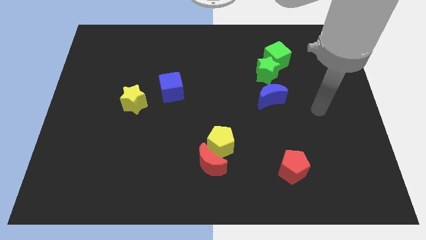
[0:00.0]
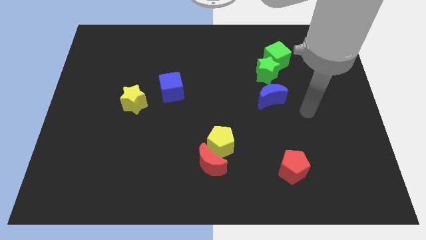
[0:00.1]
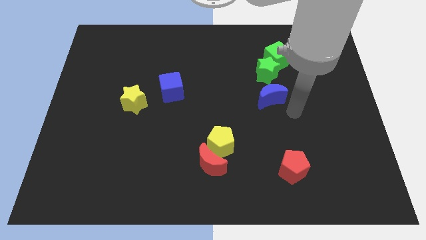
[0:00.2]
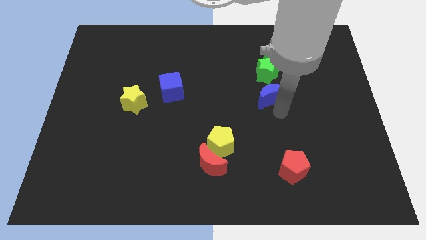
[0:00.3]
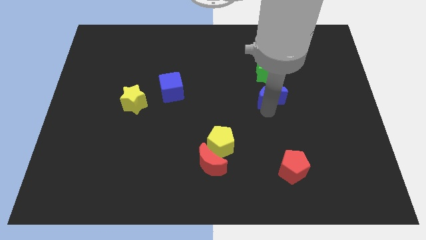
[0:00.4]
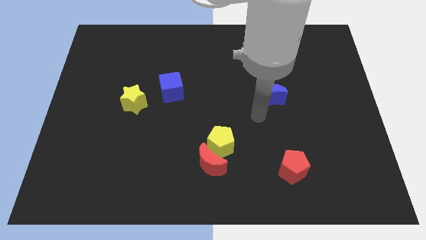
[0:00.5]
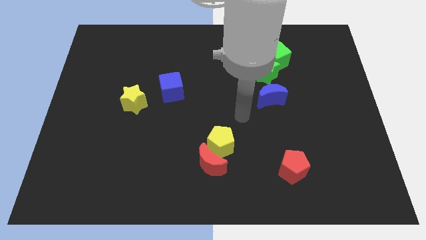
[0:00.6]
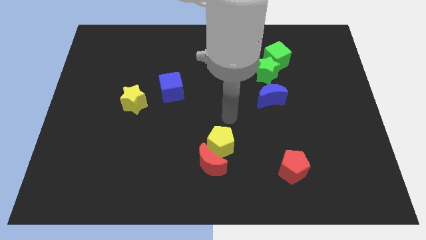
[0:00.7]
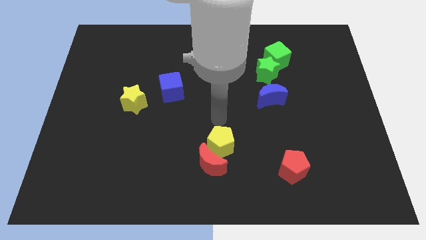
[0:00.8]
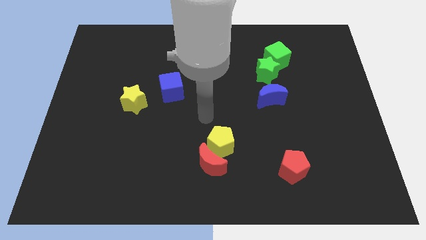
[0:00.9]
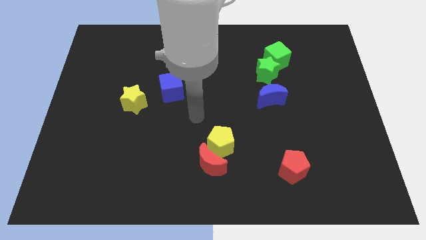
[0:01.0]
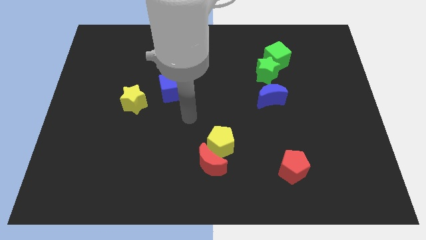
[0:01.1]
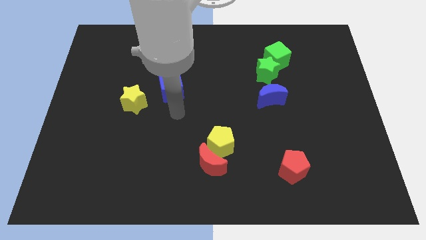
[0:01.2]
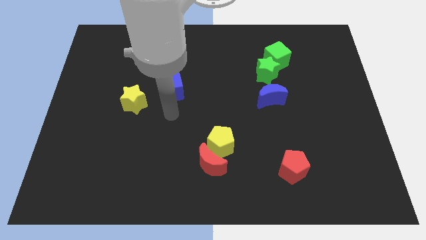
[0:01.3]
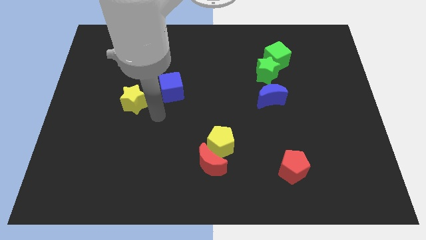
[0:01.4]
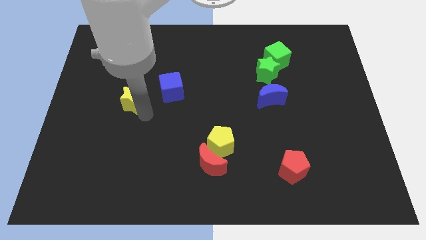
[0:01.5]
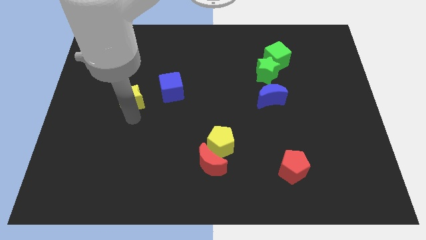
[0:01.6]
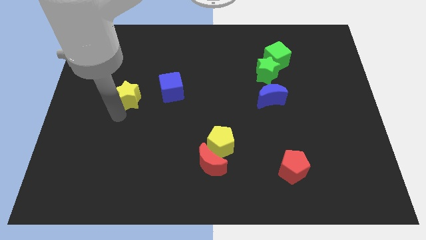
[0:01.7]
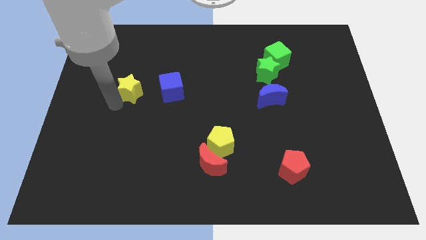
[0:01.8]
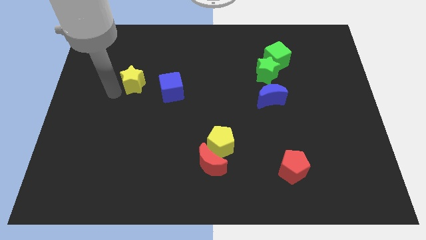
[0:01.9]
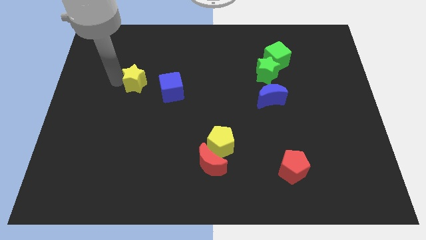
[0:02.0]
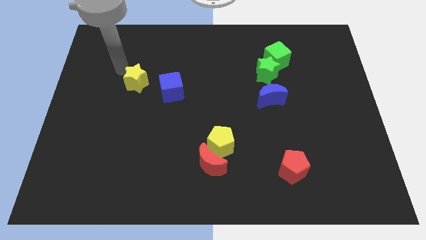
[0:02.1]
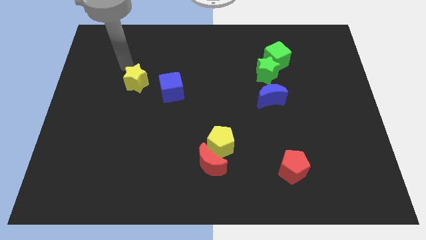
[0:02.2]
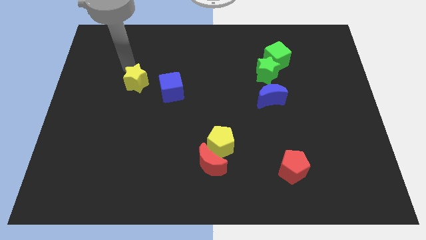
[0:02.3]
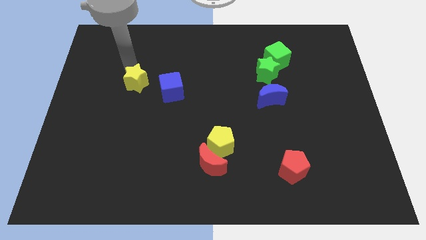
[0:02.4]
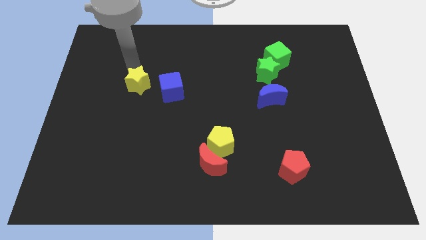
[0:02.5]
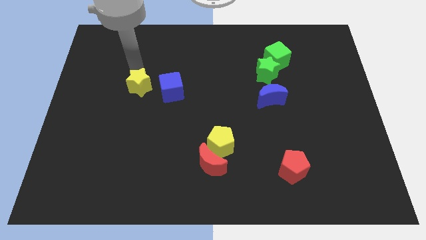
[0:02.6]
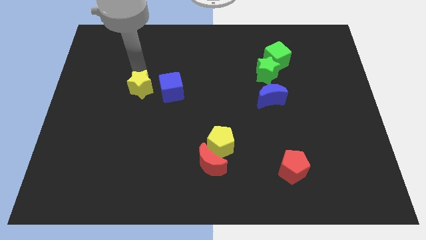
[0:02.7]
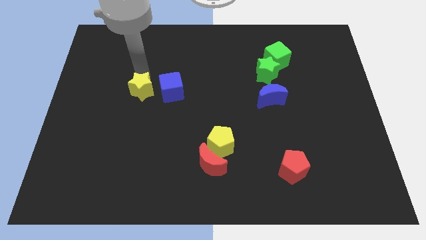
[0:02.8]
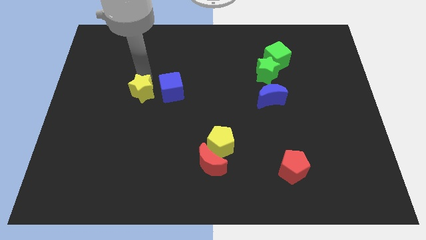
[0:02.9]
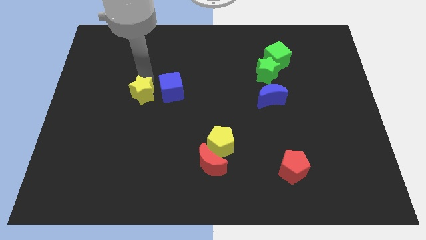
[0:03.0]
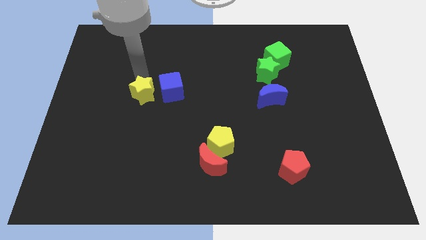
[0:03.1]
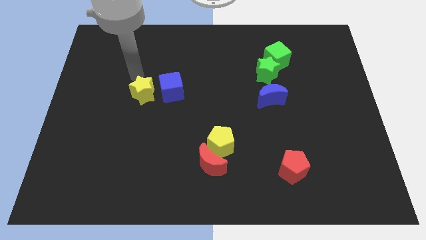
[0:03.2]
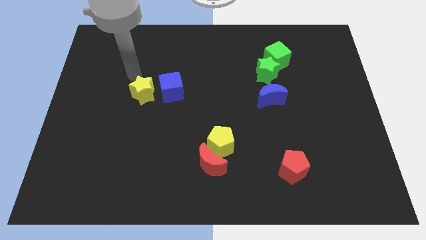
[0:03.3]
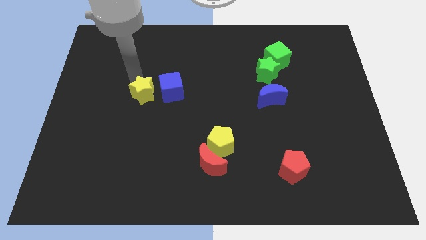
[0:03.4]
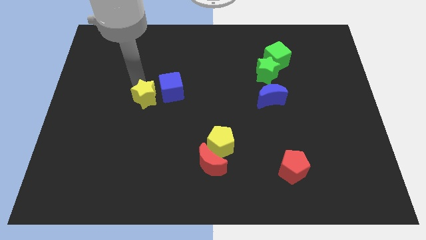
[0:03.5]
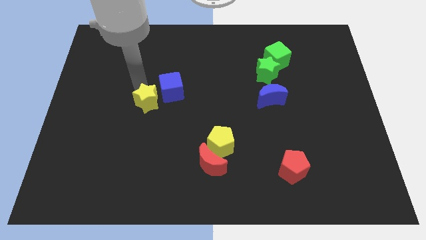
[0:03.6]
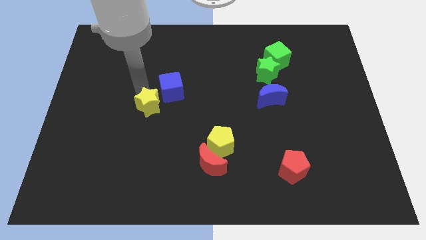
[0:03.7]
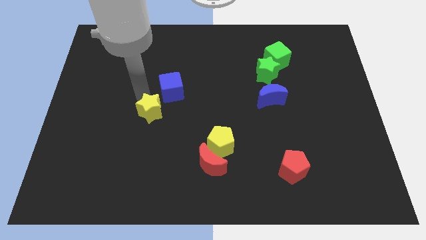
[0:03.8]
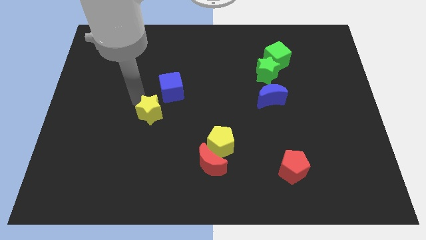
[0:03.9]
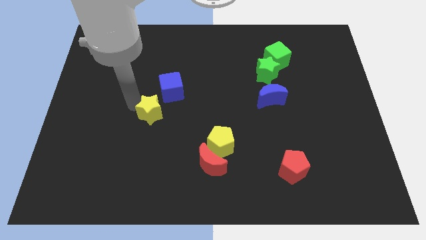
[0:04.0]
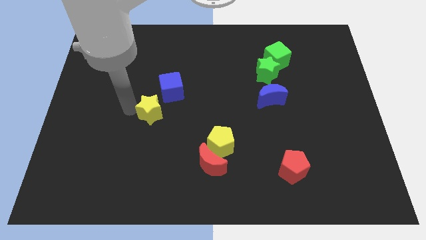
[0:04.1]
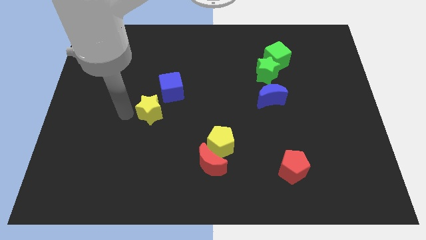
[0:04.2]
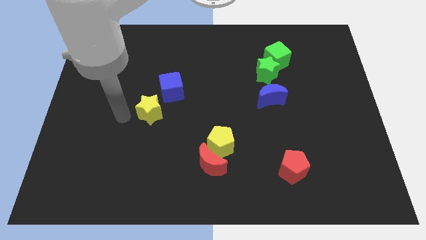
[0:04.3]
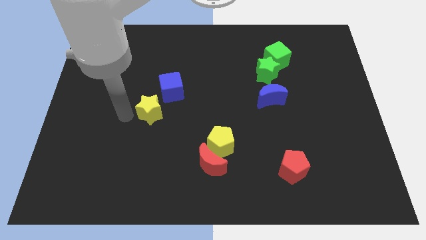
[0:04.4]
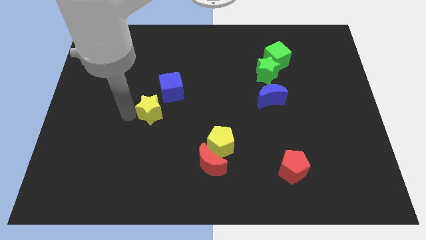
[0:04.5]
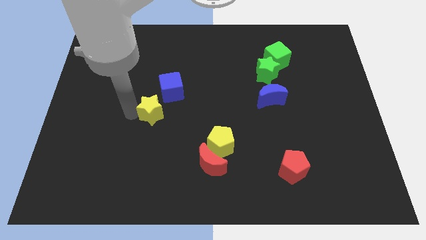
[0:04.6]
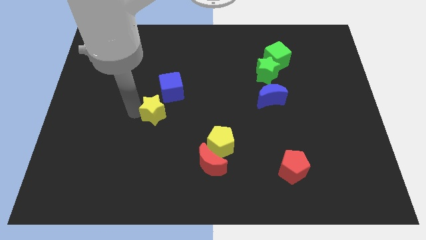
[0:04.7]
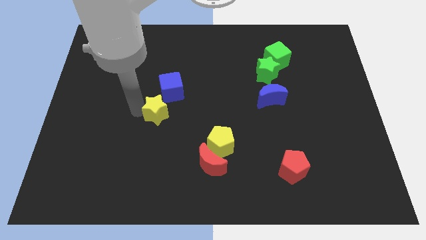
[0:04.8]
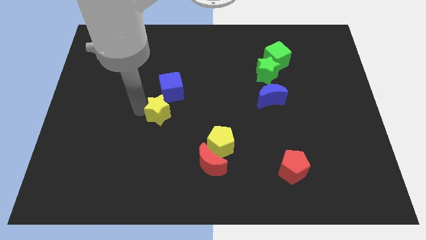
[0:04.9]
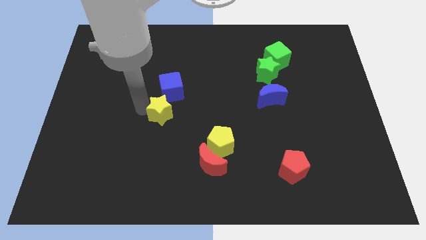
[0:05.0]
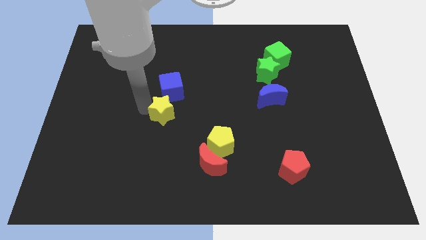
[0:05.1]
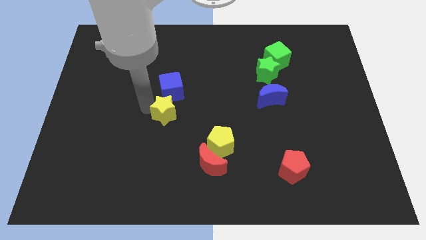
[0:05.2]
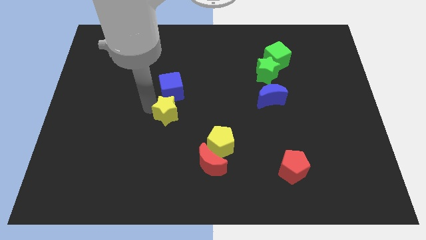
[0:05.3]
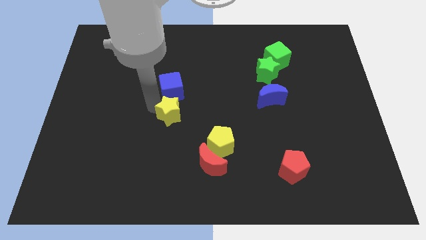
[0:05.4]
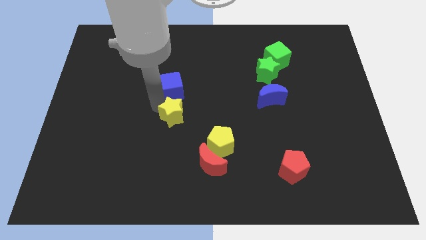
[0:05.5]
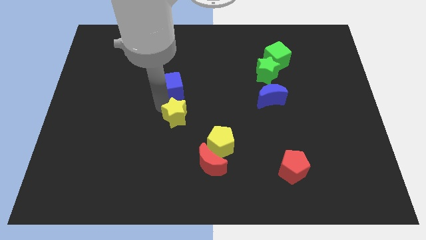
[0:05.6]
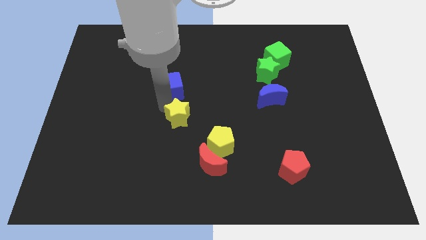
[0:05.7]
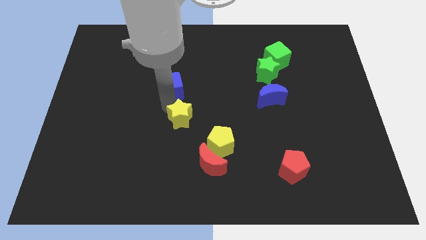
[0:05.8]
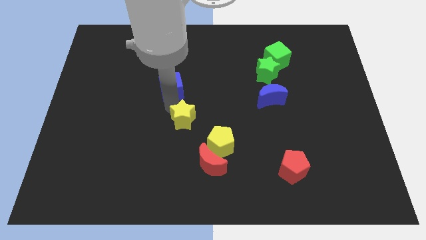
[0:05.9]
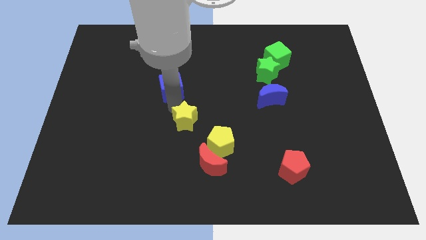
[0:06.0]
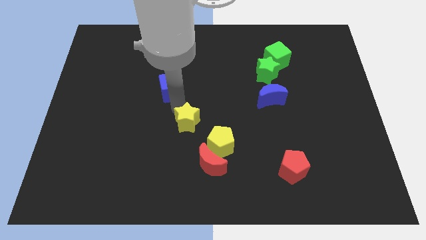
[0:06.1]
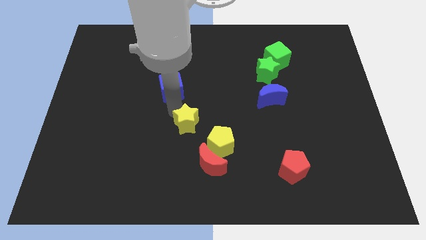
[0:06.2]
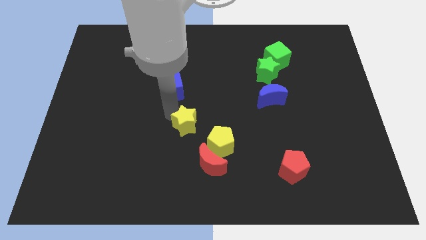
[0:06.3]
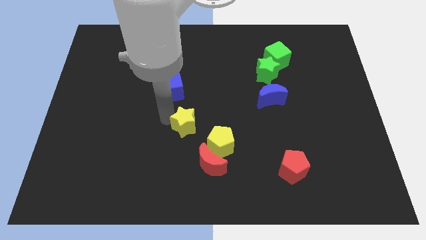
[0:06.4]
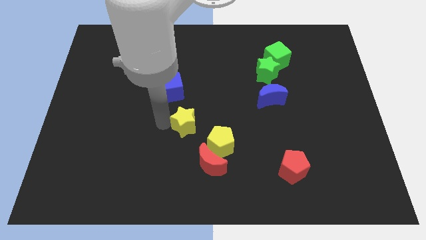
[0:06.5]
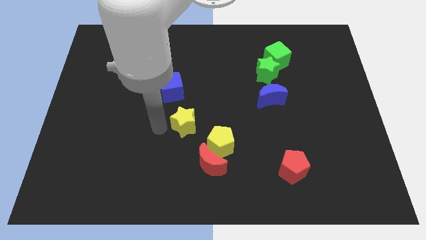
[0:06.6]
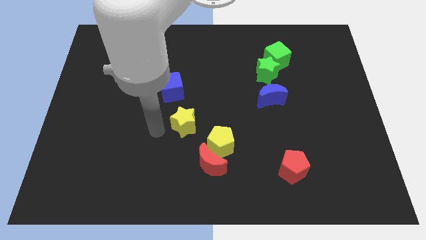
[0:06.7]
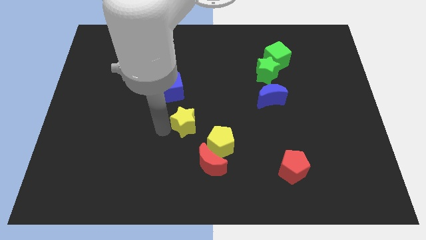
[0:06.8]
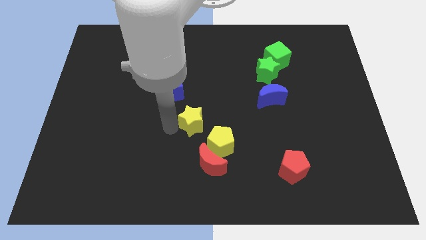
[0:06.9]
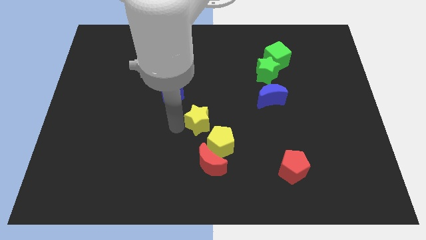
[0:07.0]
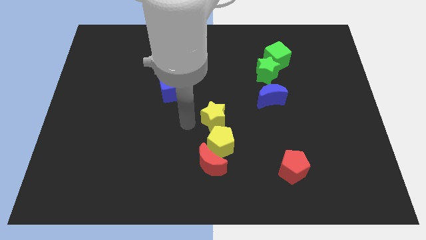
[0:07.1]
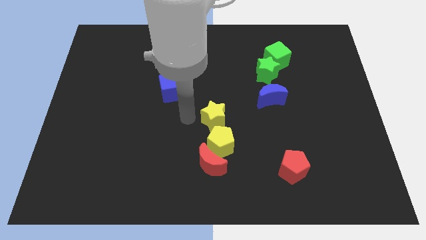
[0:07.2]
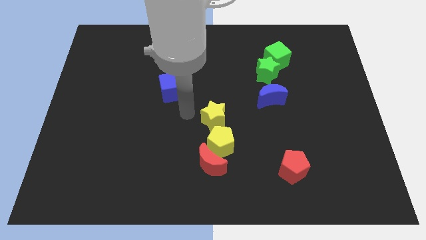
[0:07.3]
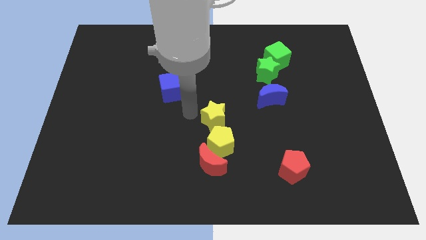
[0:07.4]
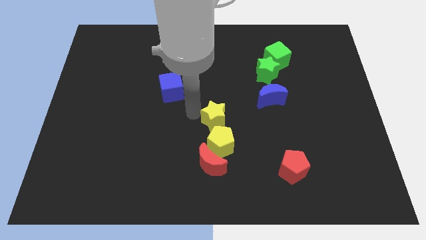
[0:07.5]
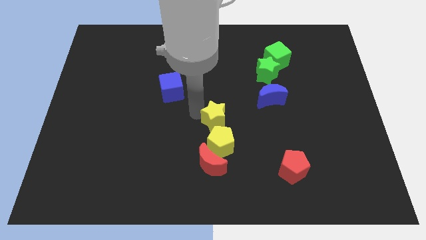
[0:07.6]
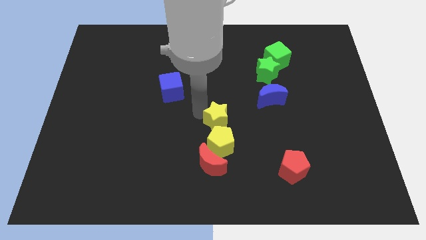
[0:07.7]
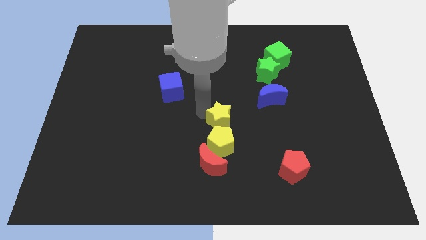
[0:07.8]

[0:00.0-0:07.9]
push the yellow star to the top right side of the yellow pentagon
